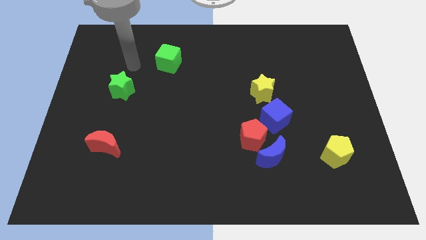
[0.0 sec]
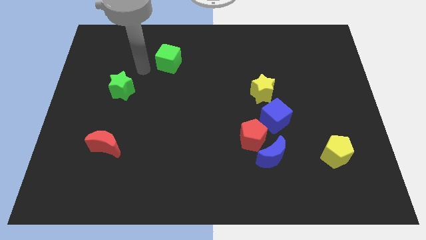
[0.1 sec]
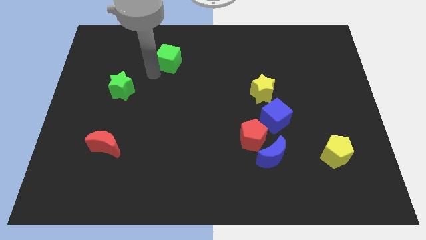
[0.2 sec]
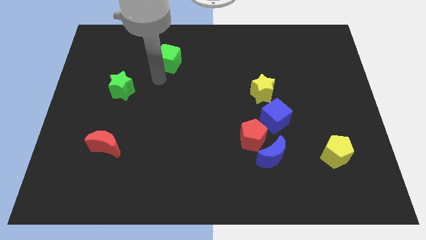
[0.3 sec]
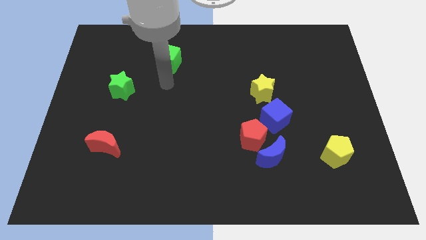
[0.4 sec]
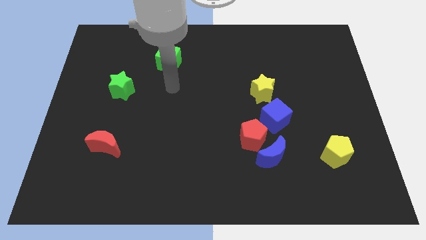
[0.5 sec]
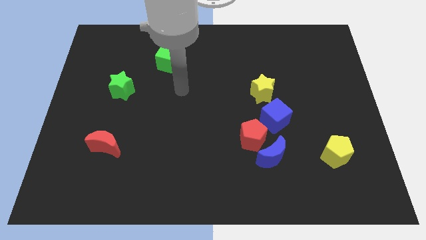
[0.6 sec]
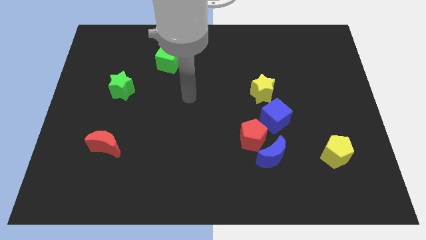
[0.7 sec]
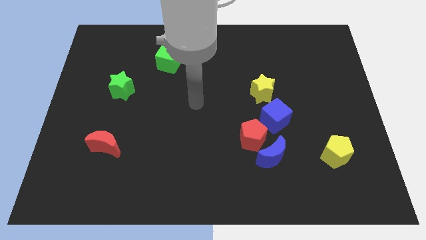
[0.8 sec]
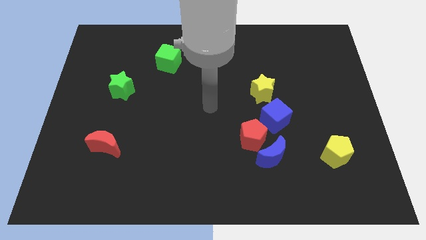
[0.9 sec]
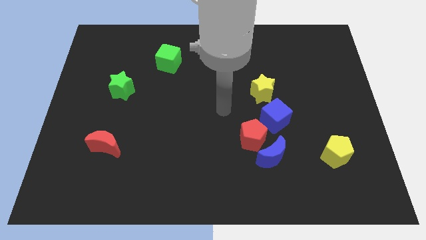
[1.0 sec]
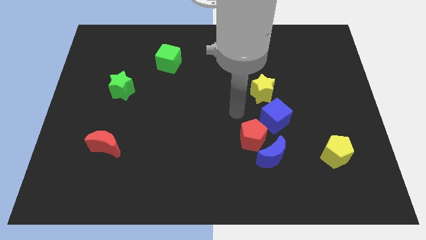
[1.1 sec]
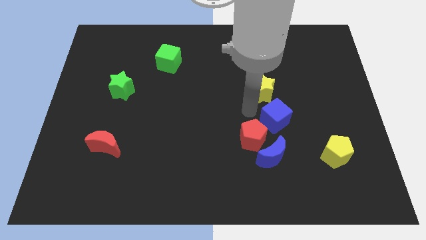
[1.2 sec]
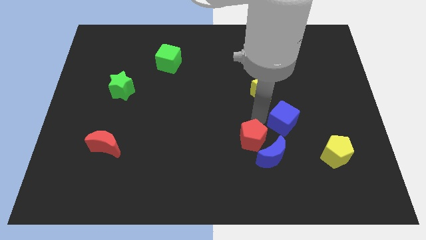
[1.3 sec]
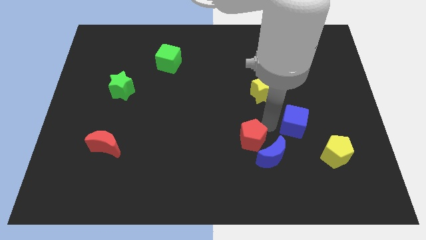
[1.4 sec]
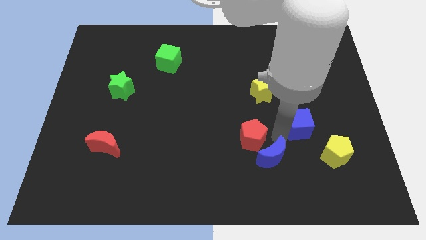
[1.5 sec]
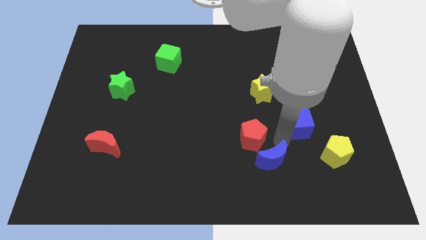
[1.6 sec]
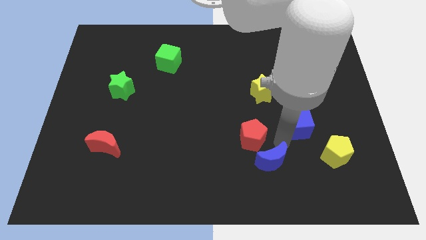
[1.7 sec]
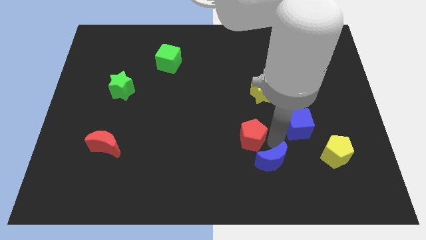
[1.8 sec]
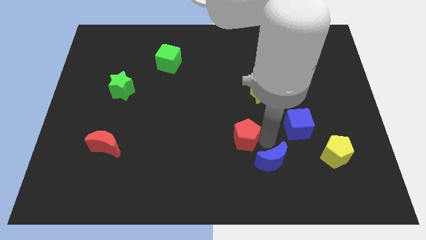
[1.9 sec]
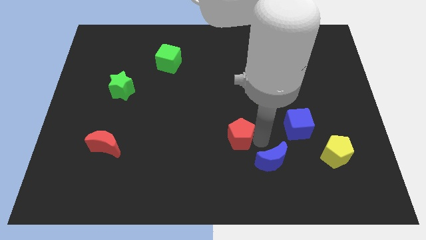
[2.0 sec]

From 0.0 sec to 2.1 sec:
move the red pentagon away from the blue moon and blue cube

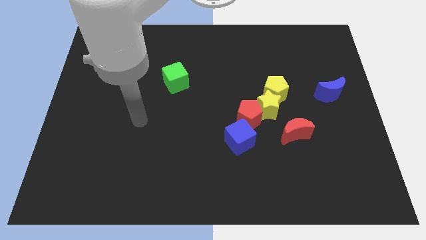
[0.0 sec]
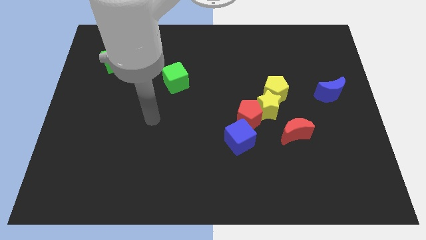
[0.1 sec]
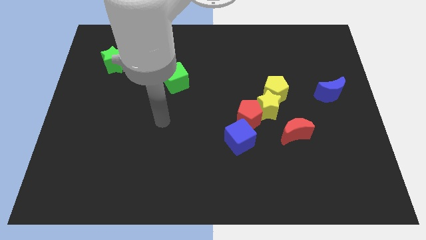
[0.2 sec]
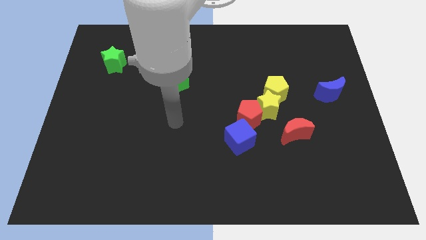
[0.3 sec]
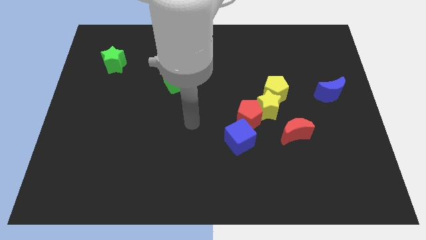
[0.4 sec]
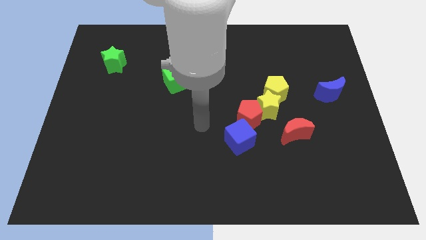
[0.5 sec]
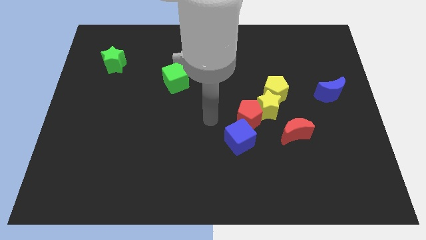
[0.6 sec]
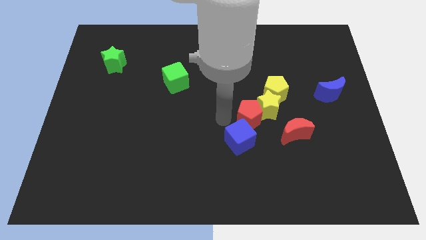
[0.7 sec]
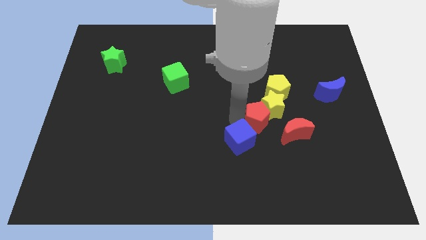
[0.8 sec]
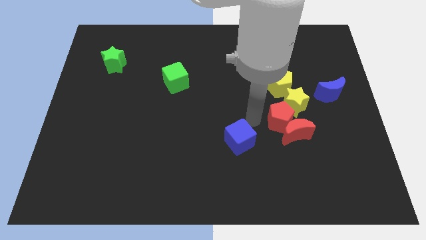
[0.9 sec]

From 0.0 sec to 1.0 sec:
pull the blue cube apart from the red pentagon

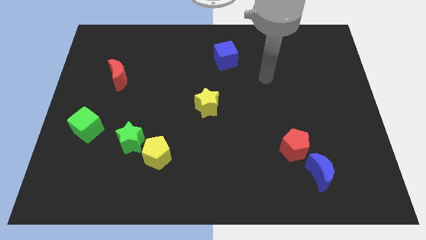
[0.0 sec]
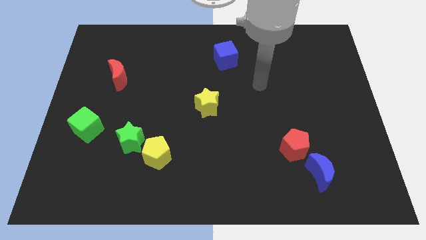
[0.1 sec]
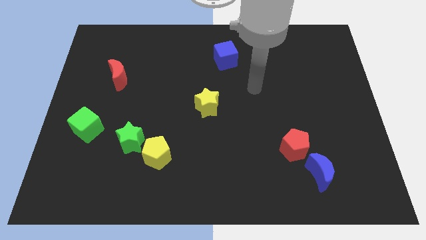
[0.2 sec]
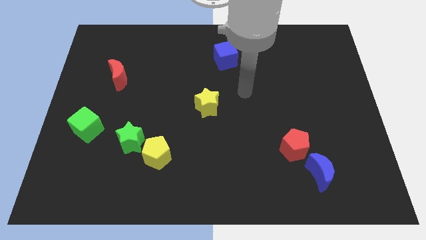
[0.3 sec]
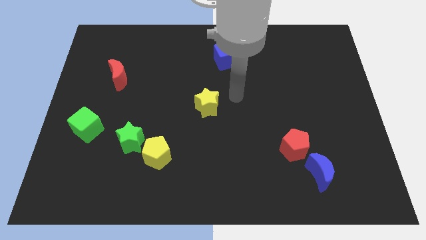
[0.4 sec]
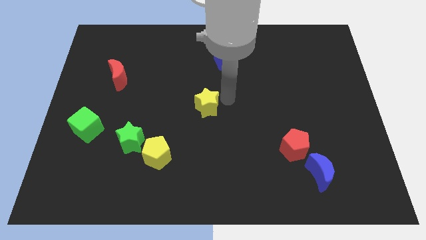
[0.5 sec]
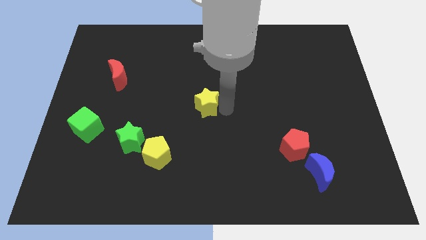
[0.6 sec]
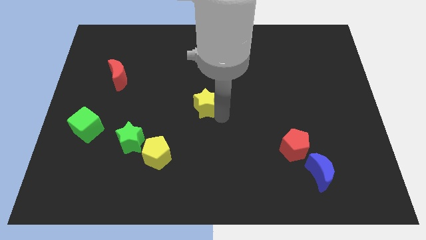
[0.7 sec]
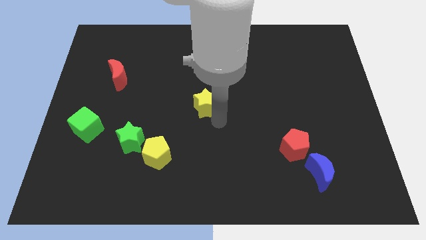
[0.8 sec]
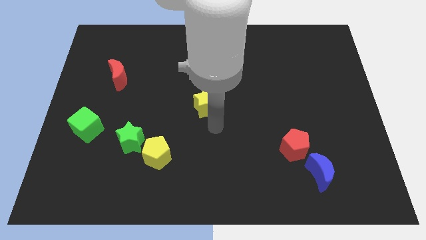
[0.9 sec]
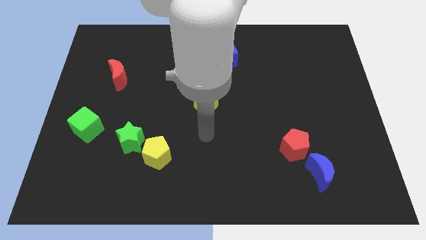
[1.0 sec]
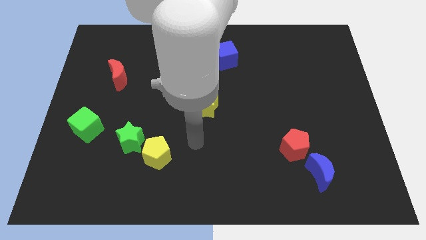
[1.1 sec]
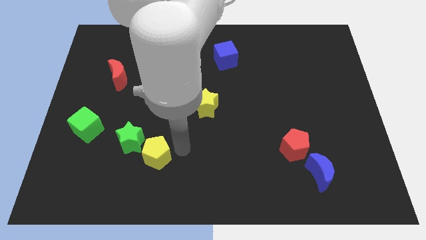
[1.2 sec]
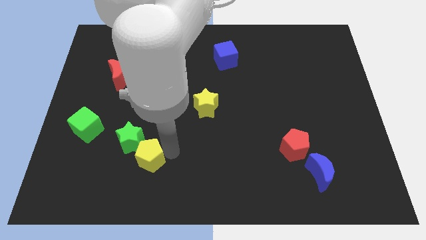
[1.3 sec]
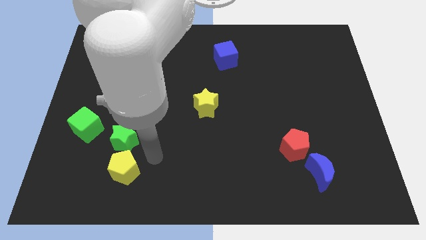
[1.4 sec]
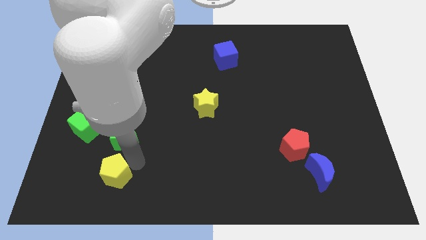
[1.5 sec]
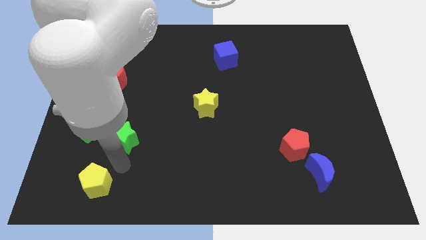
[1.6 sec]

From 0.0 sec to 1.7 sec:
pull the green star apart from the yellow pentagon

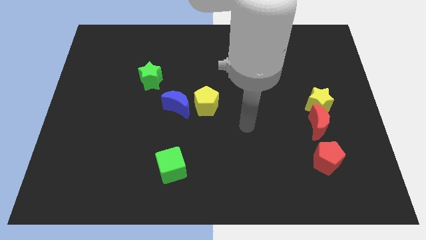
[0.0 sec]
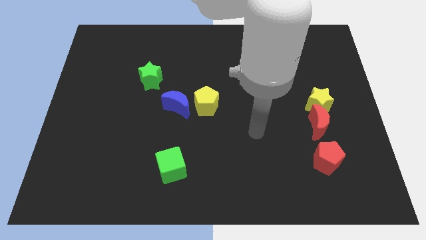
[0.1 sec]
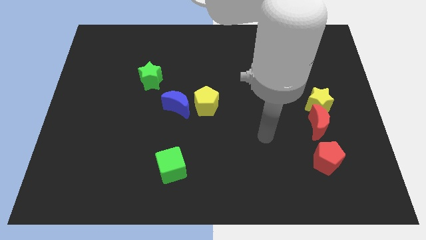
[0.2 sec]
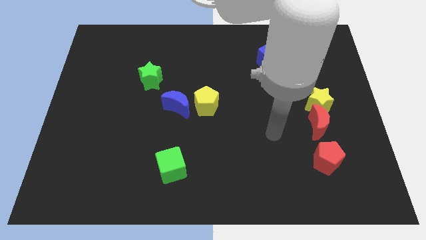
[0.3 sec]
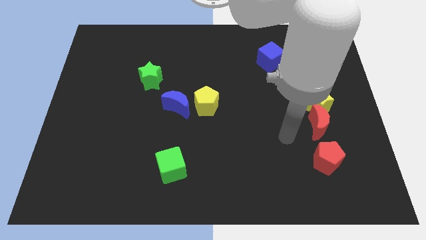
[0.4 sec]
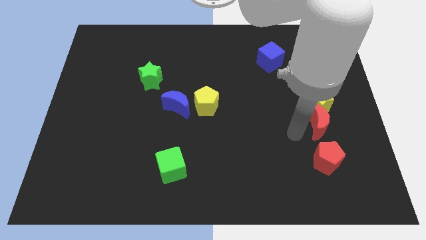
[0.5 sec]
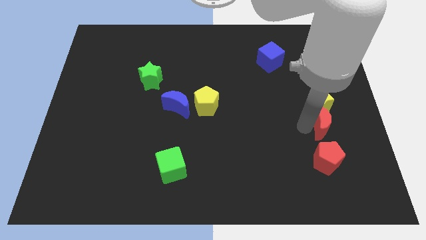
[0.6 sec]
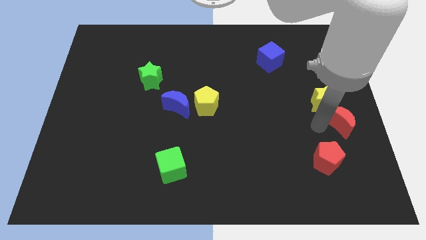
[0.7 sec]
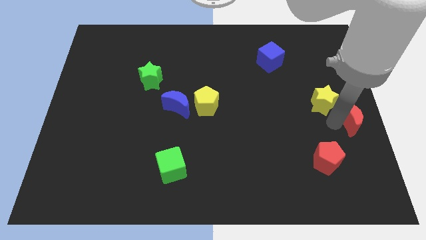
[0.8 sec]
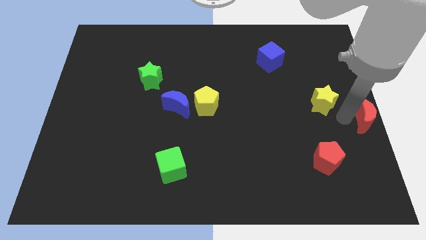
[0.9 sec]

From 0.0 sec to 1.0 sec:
pull the yellow star apart from the red moon

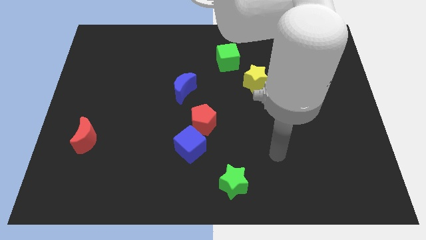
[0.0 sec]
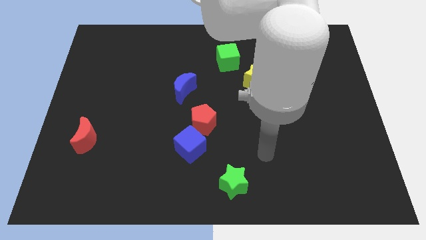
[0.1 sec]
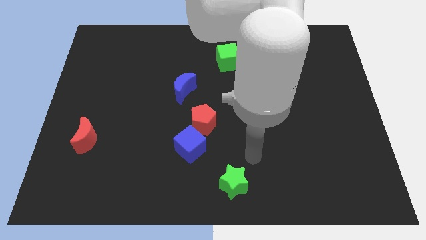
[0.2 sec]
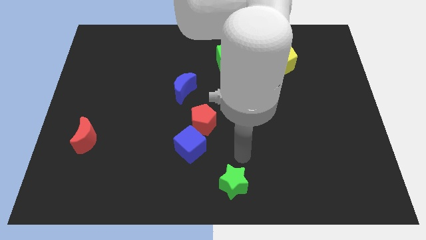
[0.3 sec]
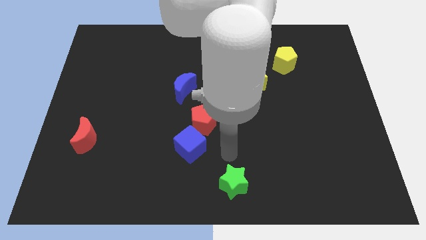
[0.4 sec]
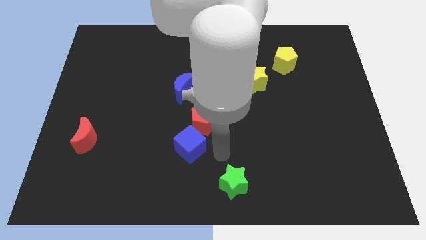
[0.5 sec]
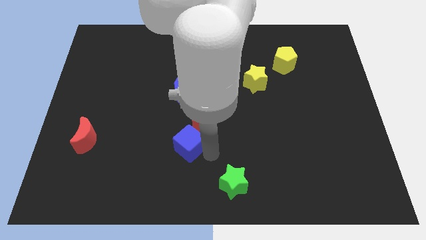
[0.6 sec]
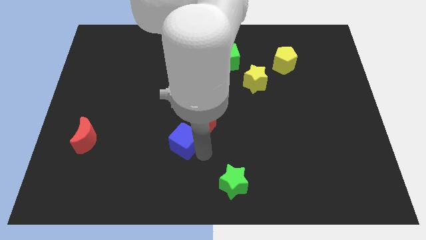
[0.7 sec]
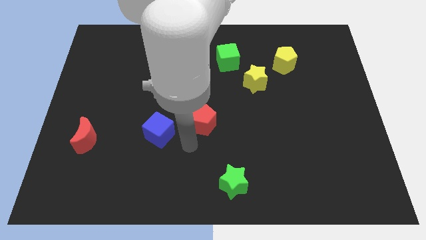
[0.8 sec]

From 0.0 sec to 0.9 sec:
move the red pentagon away from the blue cube

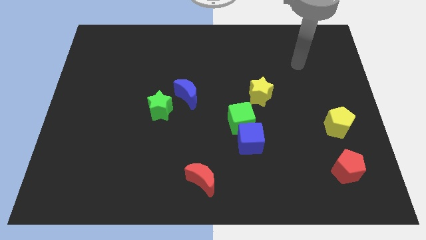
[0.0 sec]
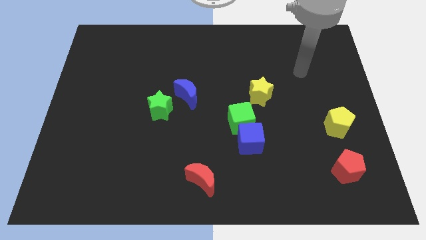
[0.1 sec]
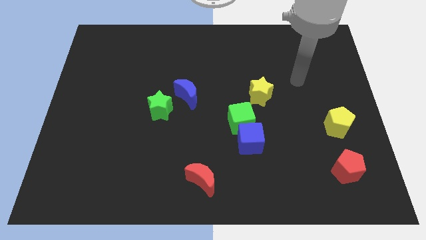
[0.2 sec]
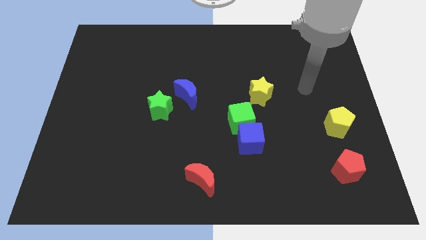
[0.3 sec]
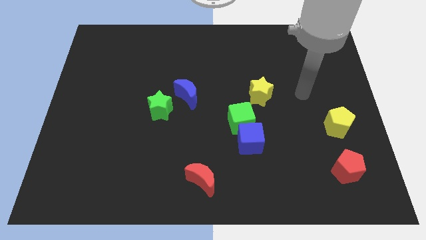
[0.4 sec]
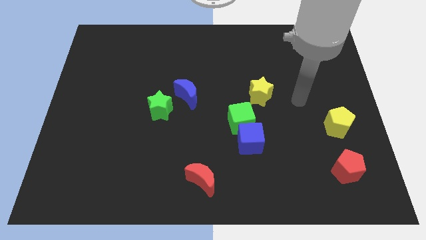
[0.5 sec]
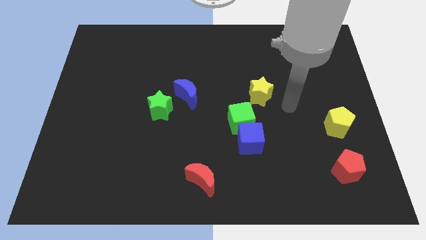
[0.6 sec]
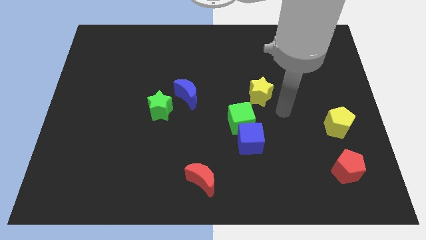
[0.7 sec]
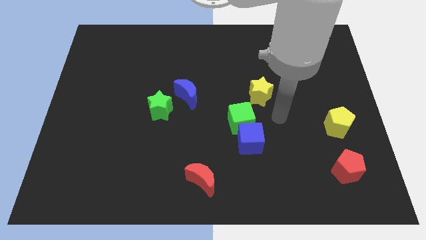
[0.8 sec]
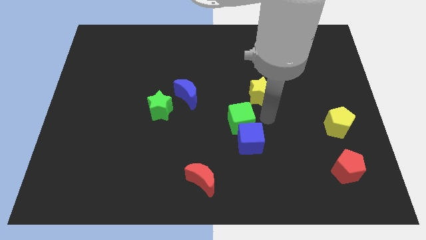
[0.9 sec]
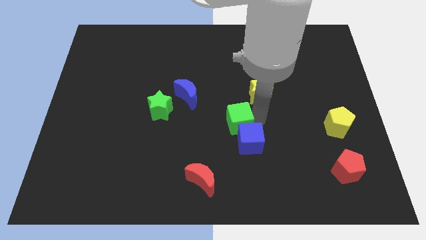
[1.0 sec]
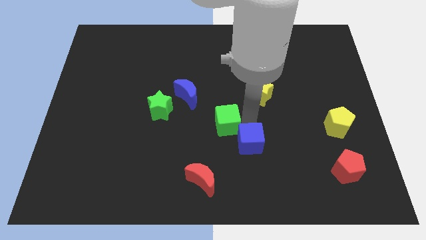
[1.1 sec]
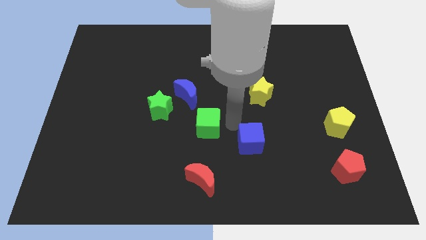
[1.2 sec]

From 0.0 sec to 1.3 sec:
move the blue cube away from the green cube

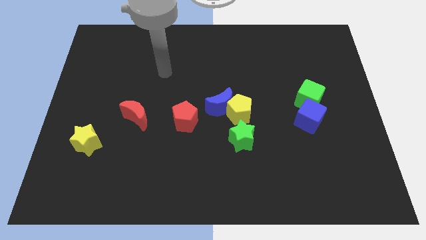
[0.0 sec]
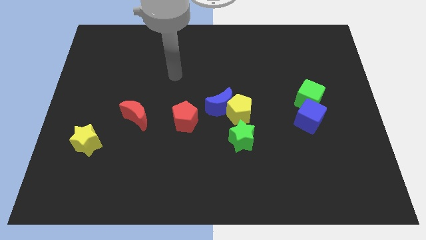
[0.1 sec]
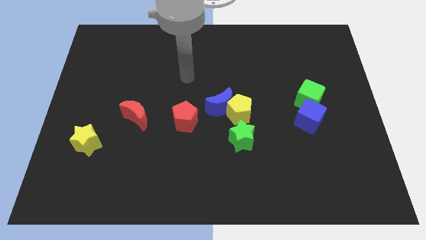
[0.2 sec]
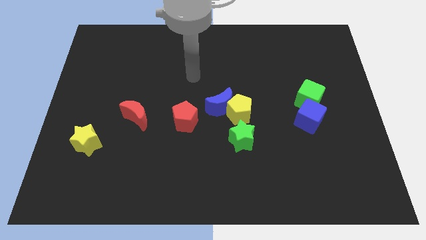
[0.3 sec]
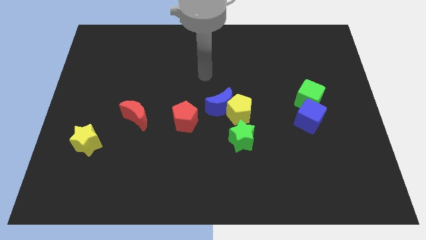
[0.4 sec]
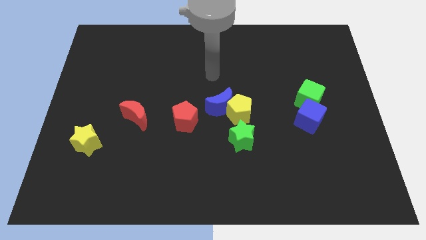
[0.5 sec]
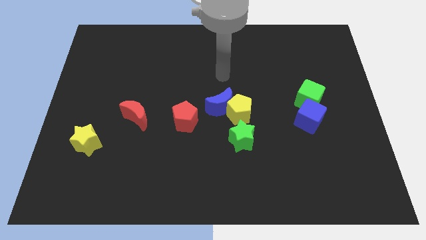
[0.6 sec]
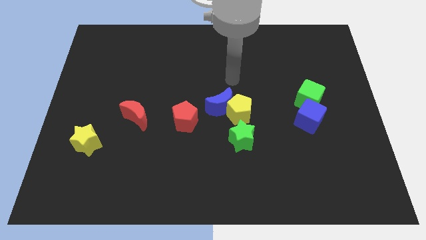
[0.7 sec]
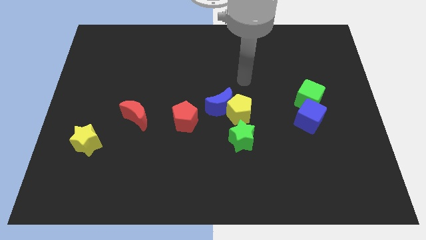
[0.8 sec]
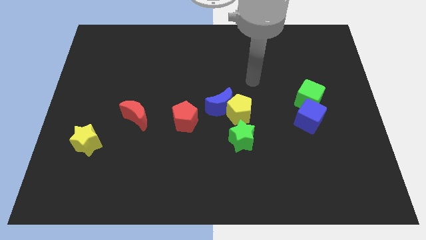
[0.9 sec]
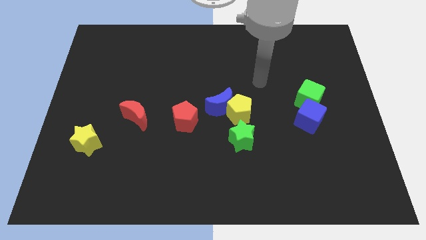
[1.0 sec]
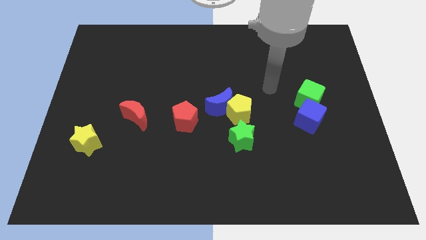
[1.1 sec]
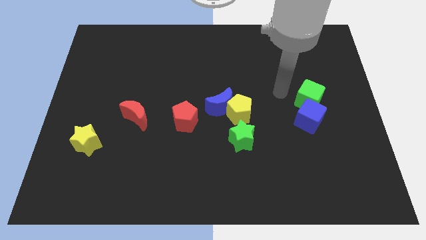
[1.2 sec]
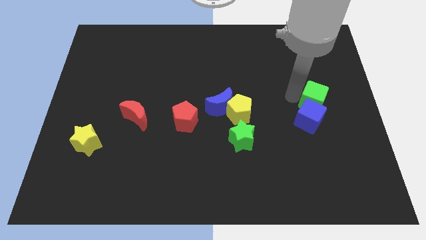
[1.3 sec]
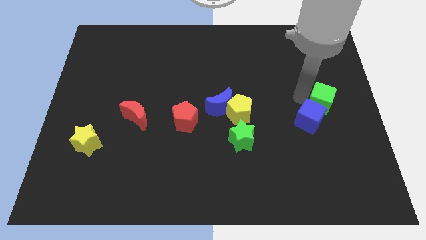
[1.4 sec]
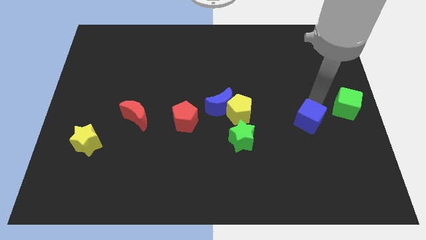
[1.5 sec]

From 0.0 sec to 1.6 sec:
pull the blue cube apart from the green cube
